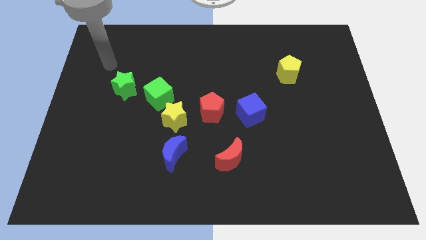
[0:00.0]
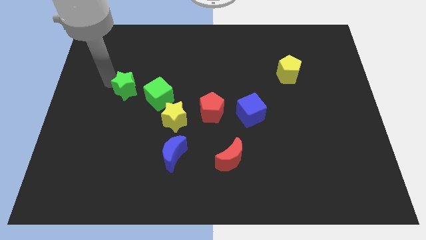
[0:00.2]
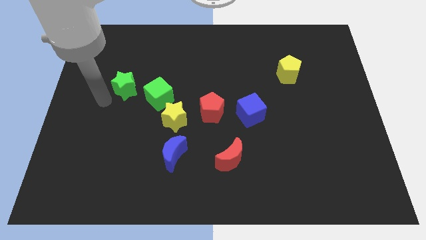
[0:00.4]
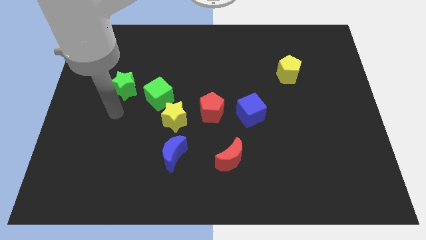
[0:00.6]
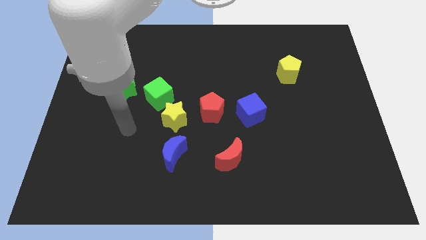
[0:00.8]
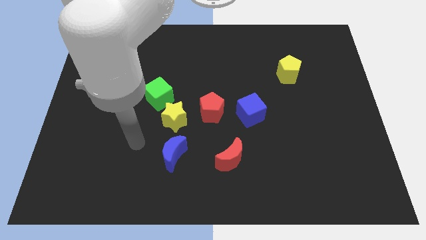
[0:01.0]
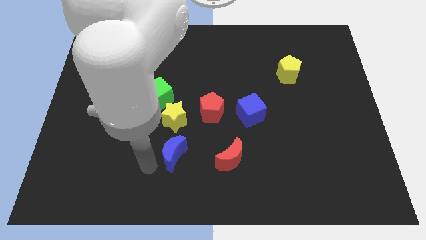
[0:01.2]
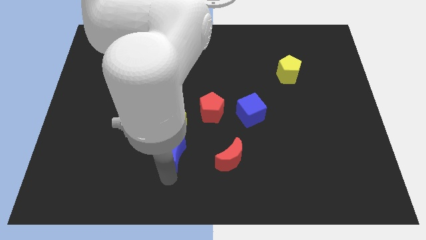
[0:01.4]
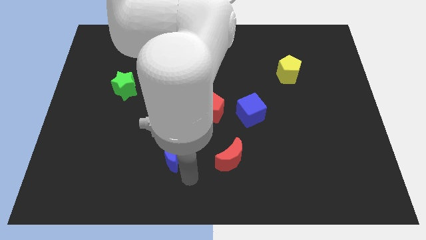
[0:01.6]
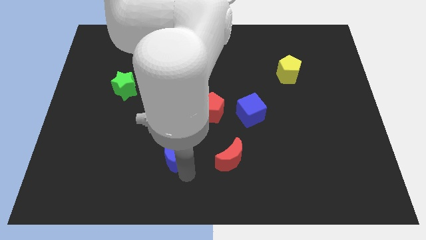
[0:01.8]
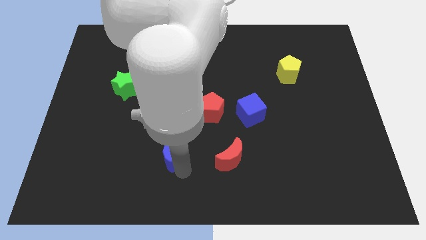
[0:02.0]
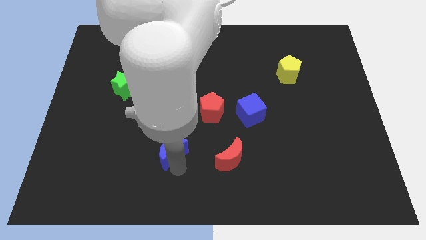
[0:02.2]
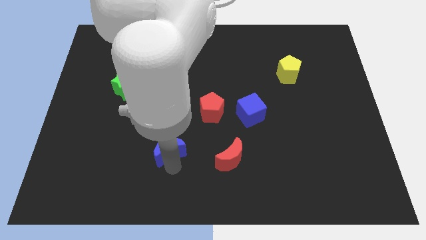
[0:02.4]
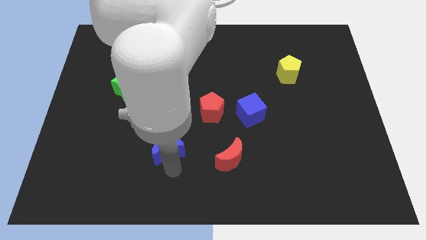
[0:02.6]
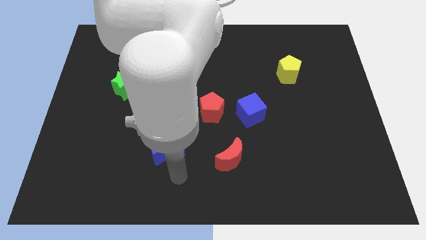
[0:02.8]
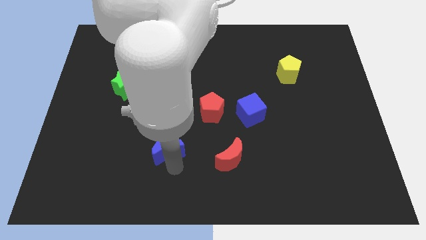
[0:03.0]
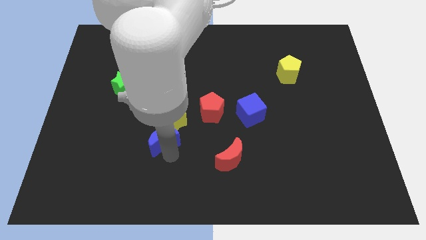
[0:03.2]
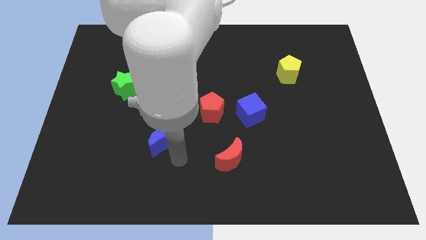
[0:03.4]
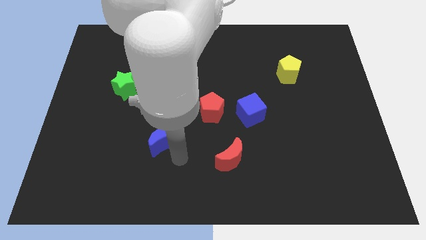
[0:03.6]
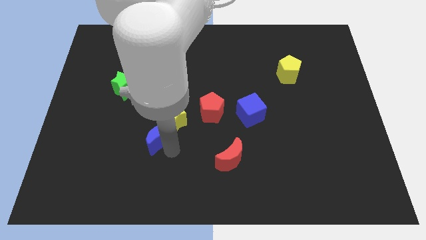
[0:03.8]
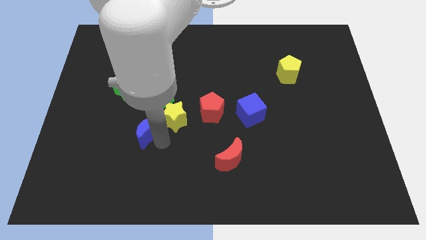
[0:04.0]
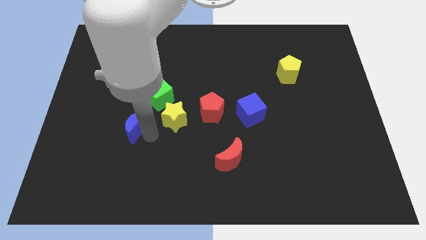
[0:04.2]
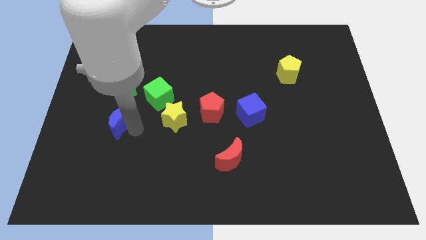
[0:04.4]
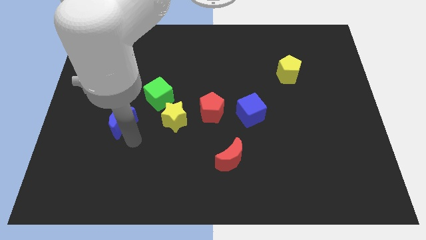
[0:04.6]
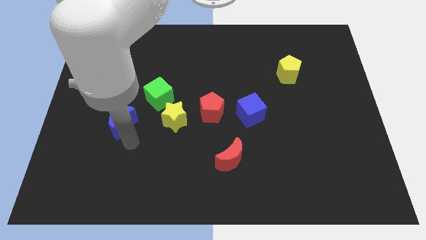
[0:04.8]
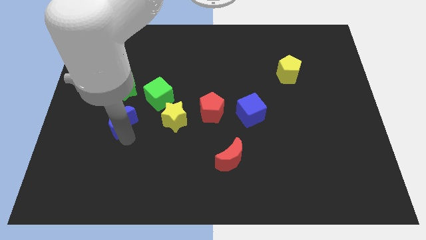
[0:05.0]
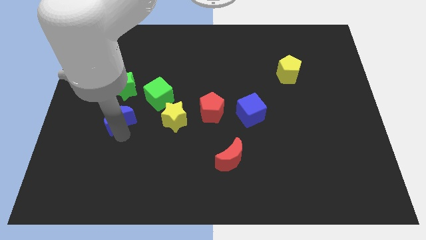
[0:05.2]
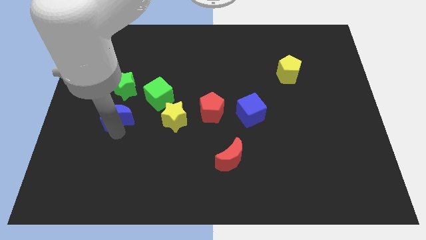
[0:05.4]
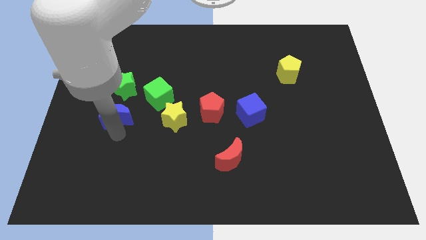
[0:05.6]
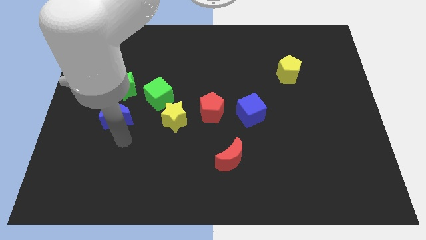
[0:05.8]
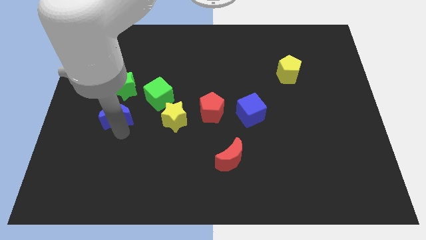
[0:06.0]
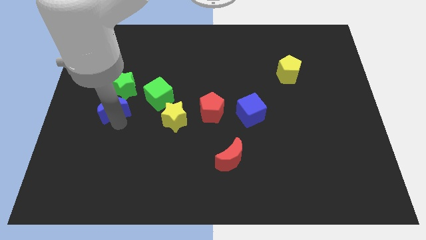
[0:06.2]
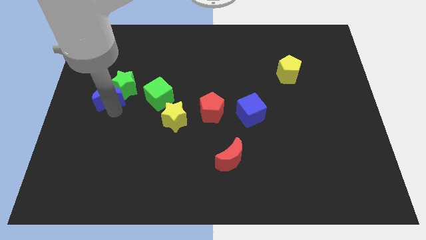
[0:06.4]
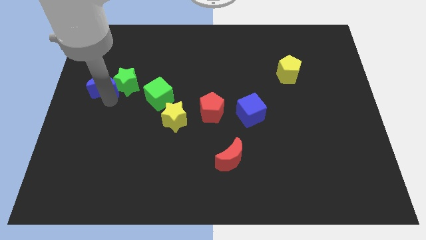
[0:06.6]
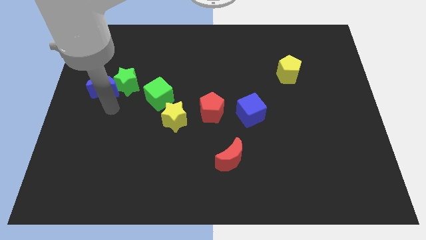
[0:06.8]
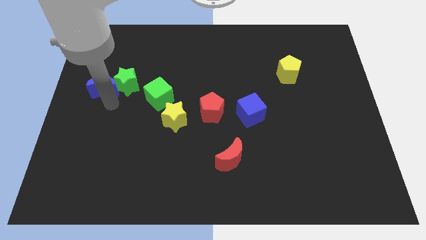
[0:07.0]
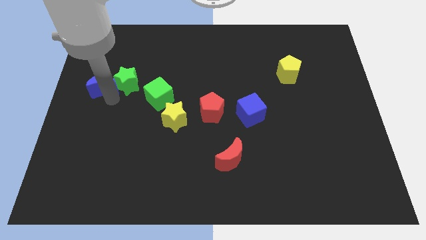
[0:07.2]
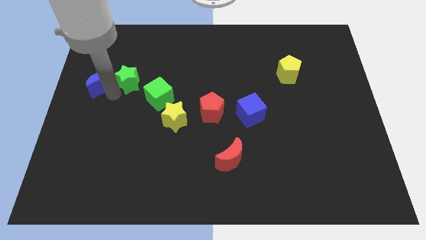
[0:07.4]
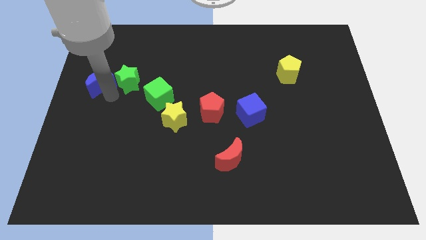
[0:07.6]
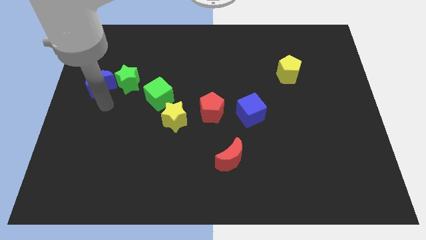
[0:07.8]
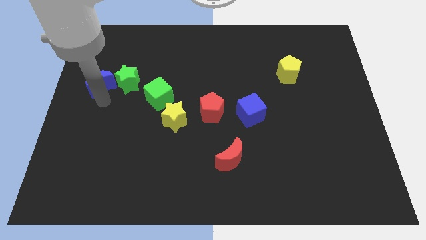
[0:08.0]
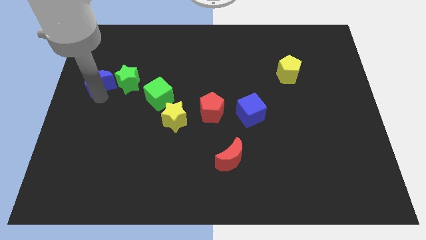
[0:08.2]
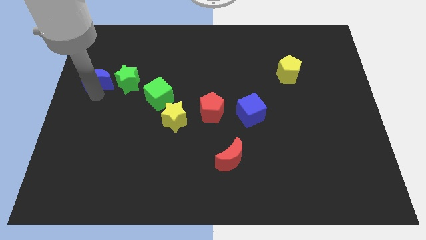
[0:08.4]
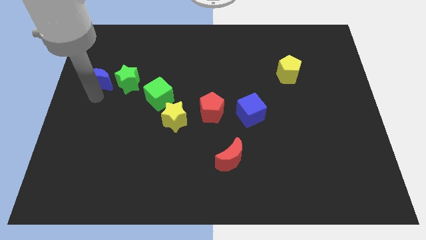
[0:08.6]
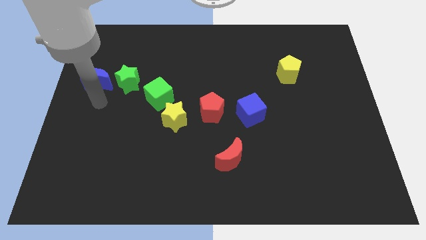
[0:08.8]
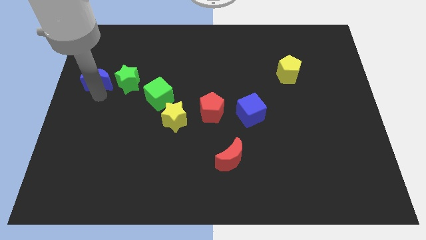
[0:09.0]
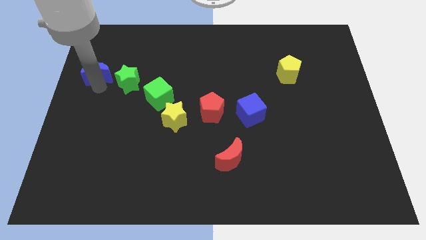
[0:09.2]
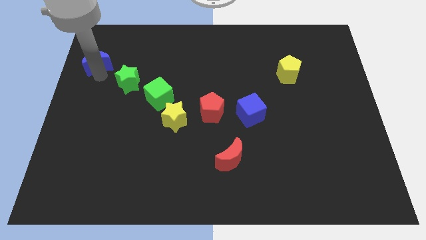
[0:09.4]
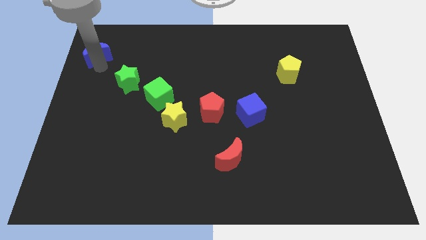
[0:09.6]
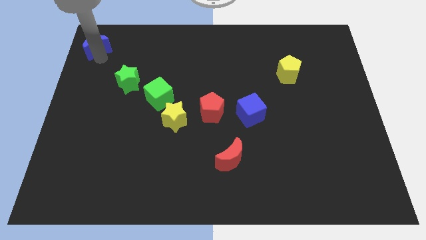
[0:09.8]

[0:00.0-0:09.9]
put the blue moon to the top left of the board

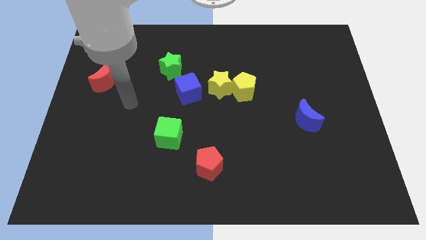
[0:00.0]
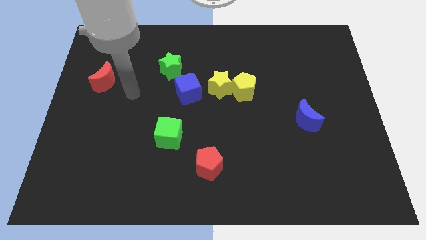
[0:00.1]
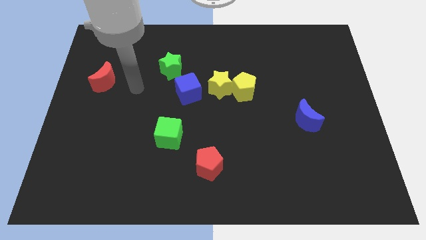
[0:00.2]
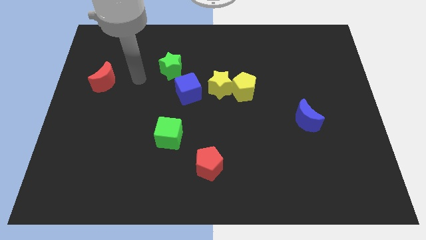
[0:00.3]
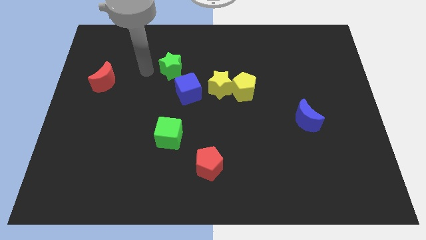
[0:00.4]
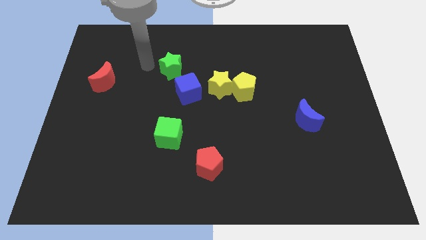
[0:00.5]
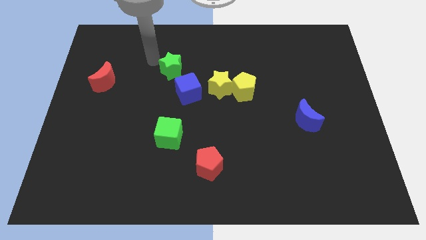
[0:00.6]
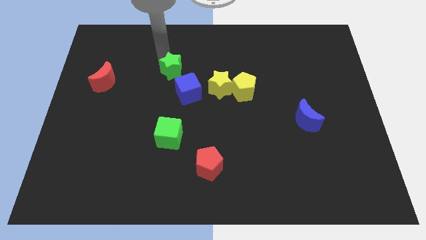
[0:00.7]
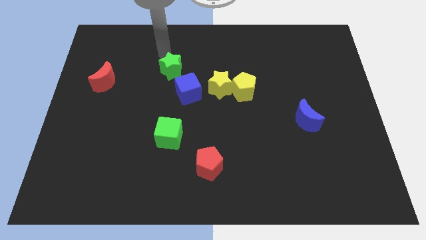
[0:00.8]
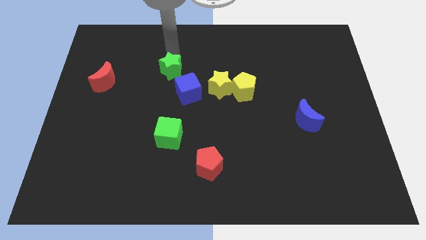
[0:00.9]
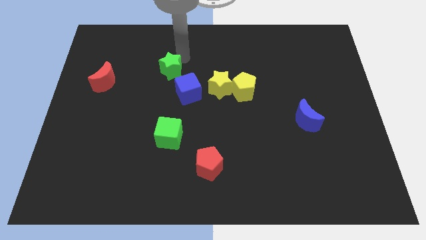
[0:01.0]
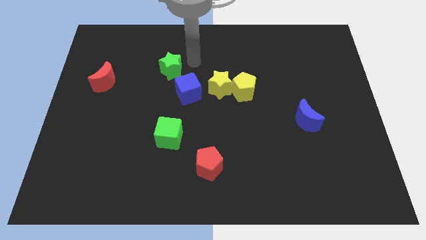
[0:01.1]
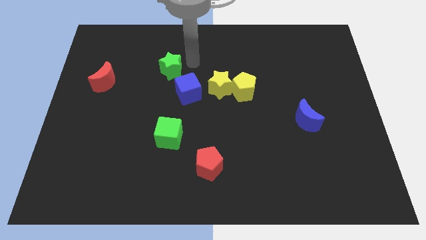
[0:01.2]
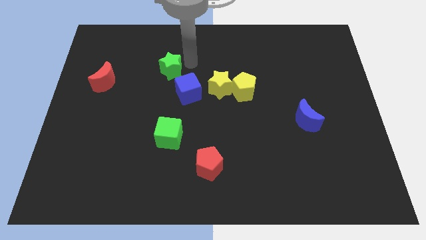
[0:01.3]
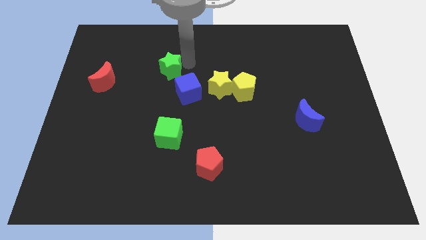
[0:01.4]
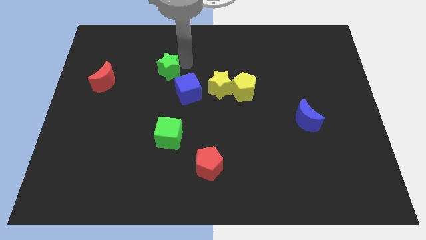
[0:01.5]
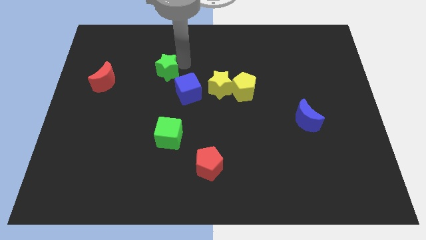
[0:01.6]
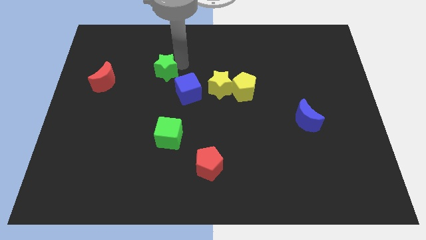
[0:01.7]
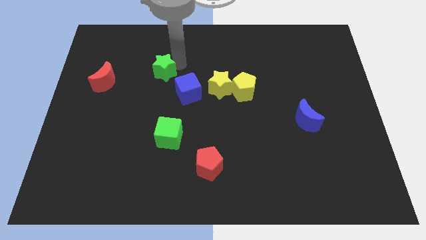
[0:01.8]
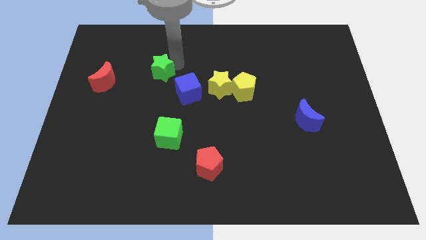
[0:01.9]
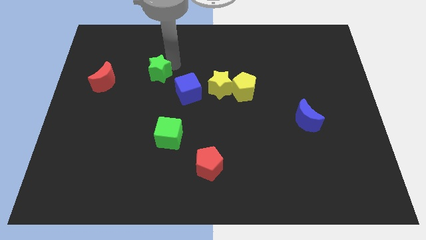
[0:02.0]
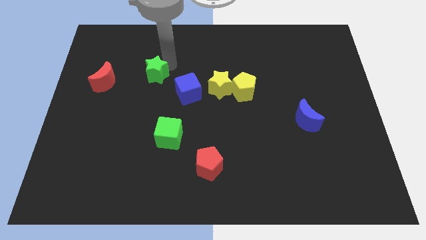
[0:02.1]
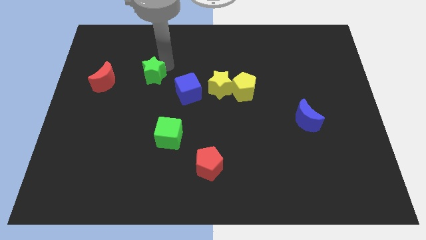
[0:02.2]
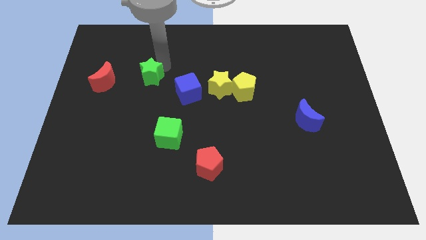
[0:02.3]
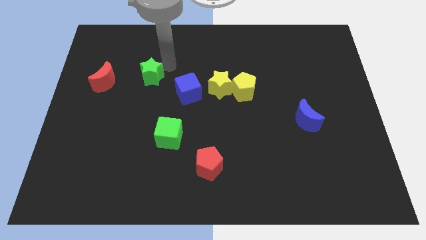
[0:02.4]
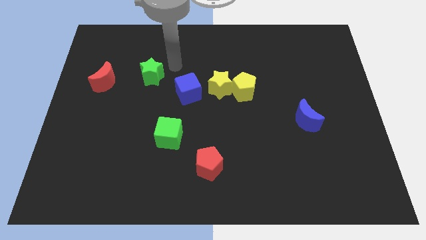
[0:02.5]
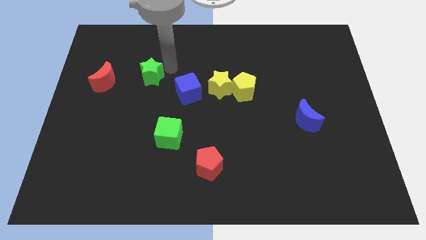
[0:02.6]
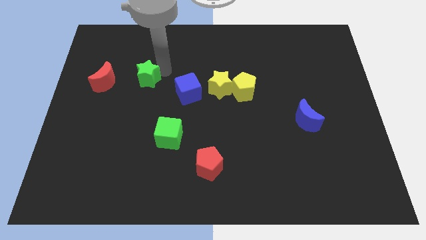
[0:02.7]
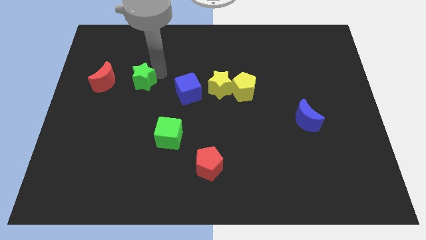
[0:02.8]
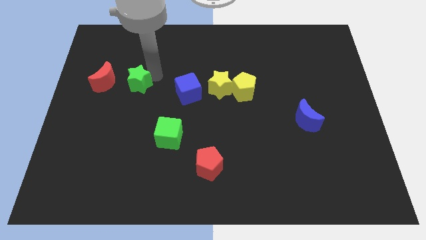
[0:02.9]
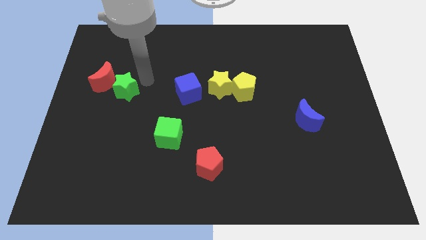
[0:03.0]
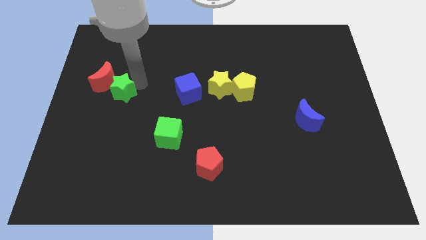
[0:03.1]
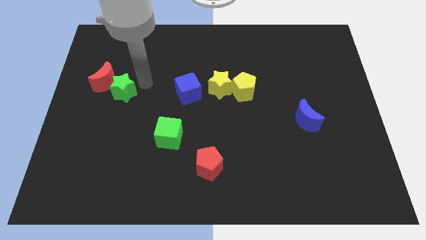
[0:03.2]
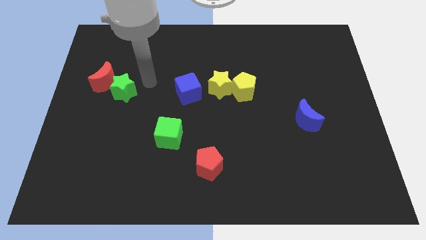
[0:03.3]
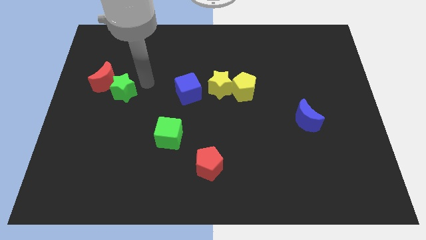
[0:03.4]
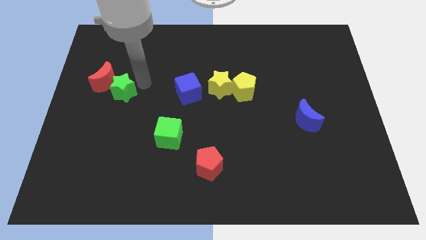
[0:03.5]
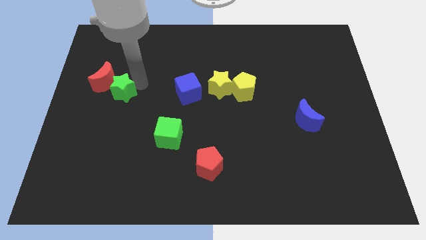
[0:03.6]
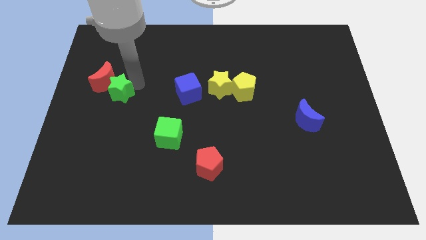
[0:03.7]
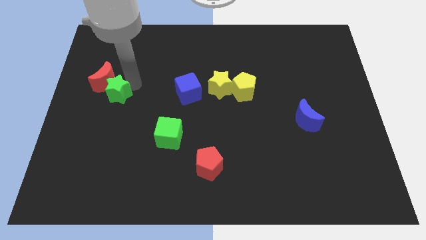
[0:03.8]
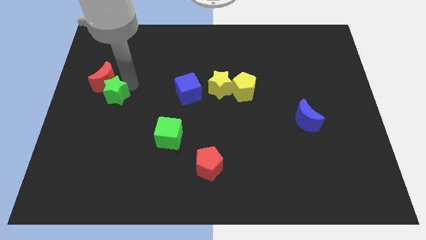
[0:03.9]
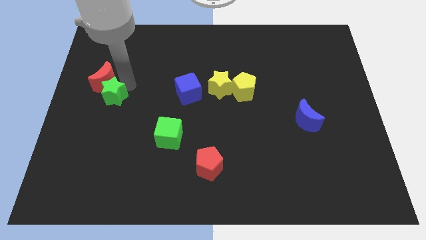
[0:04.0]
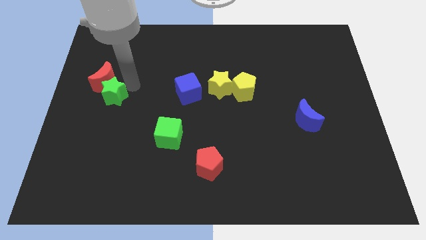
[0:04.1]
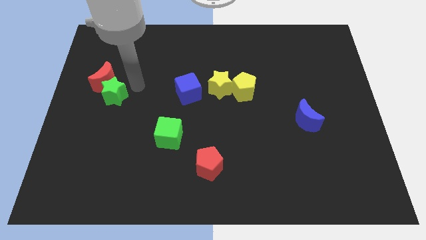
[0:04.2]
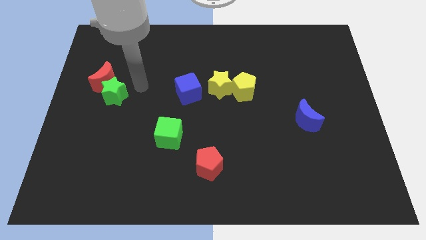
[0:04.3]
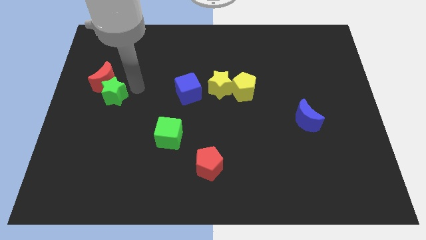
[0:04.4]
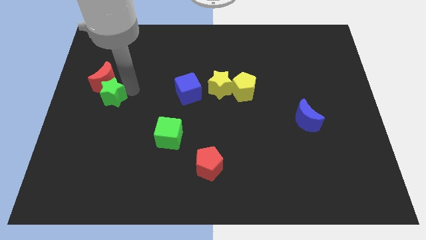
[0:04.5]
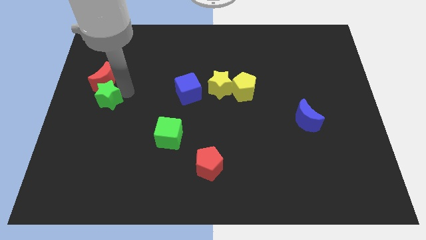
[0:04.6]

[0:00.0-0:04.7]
move the green star to the center left
